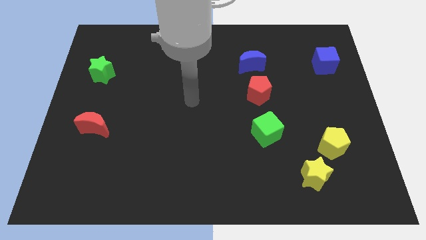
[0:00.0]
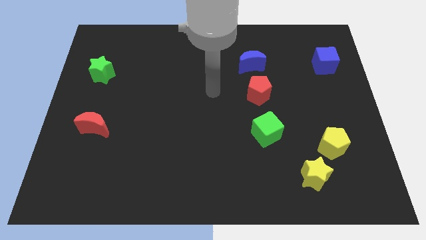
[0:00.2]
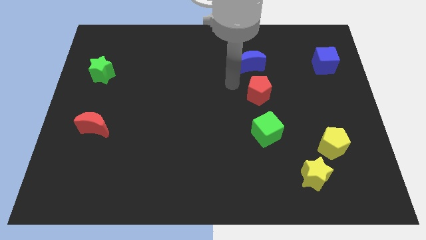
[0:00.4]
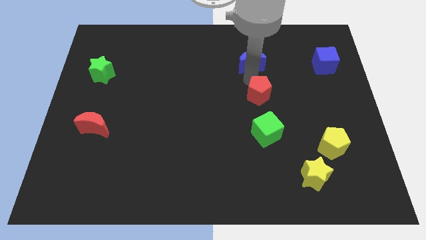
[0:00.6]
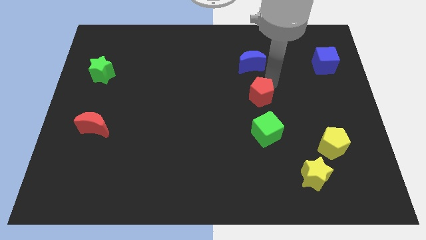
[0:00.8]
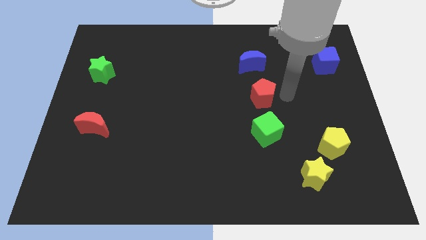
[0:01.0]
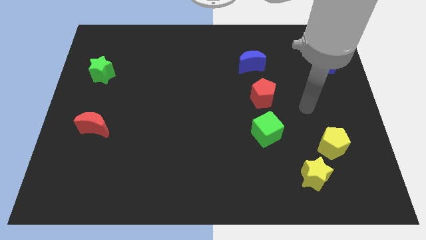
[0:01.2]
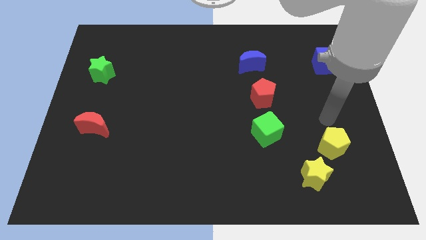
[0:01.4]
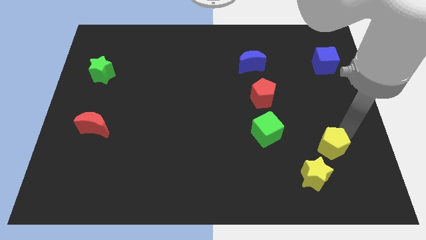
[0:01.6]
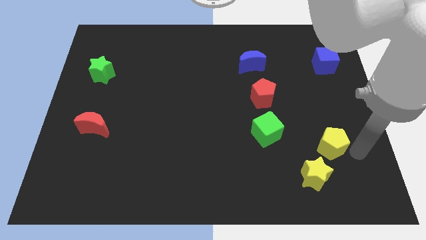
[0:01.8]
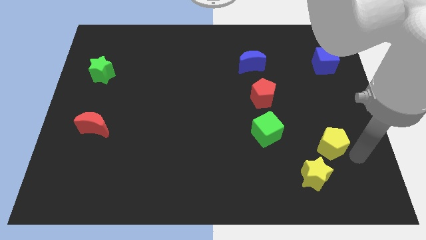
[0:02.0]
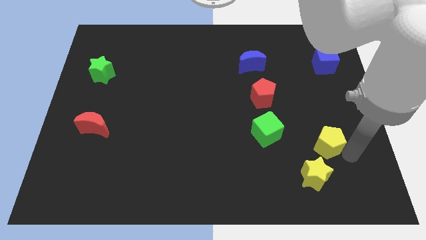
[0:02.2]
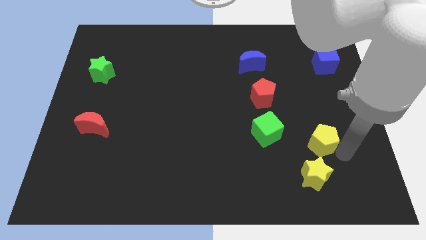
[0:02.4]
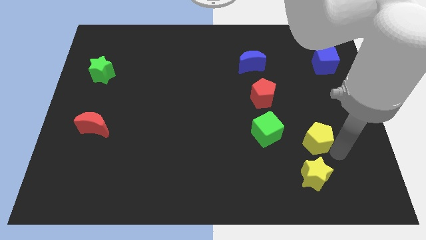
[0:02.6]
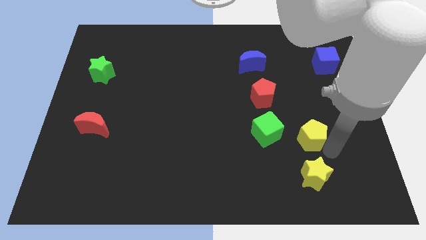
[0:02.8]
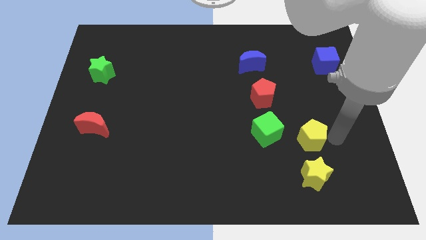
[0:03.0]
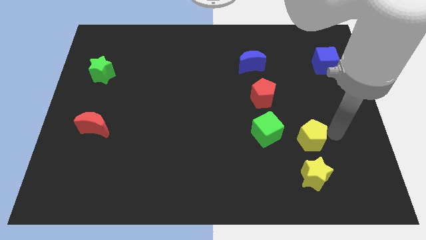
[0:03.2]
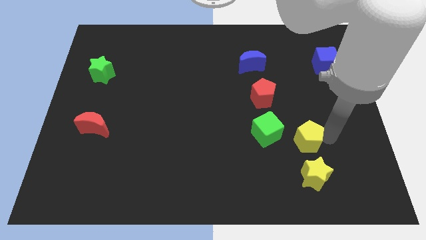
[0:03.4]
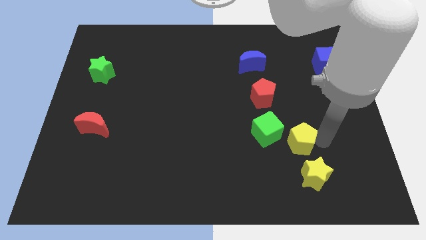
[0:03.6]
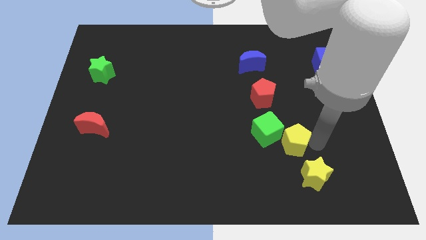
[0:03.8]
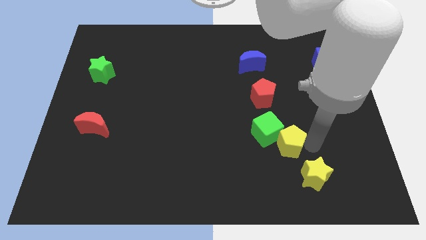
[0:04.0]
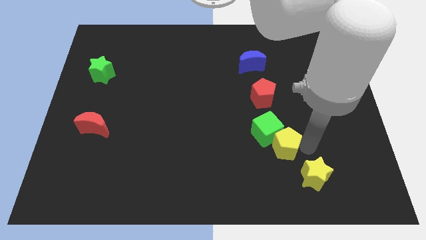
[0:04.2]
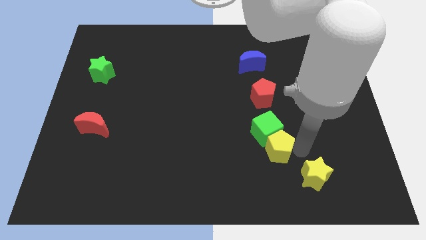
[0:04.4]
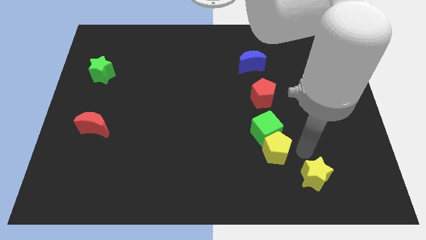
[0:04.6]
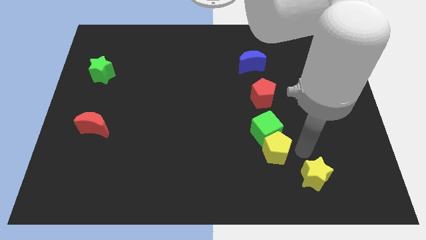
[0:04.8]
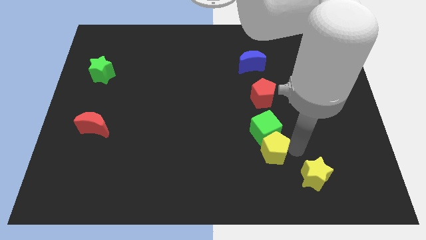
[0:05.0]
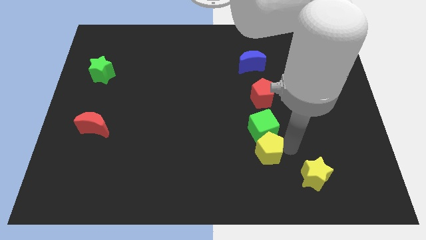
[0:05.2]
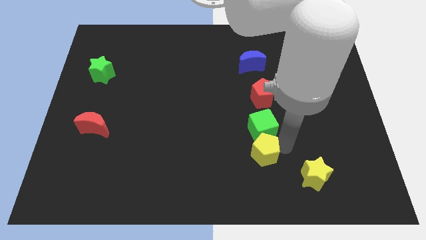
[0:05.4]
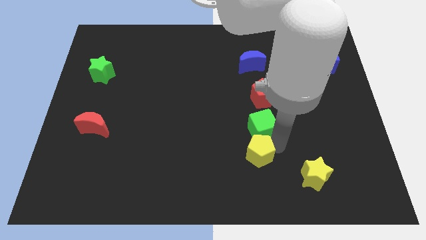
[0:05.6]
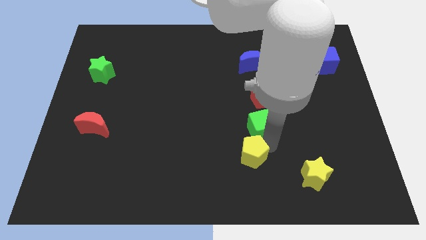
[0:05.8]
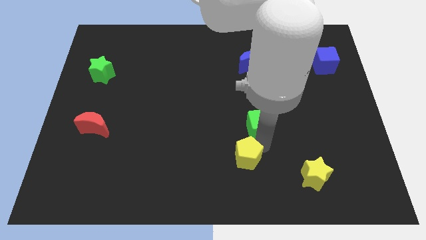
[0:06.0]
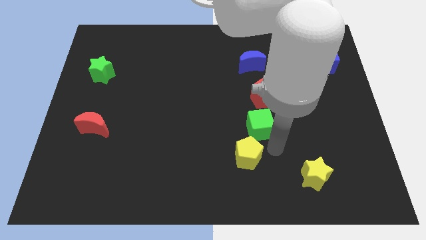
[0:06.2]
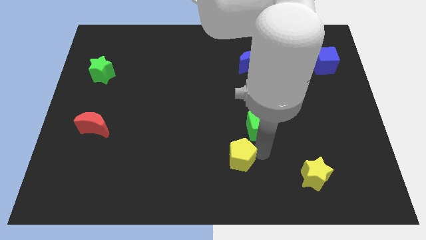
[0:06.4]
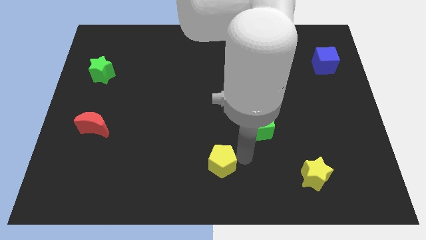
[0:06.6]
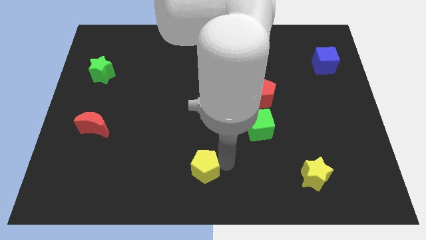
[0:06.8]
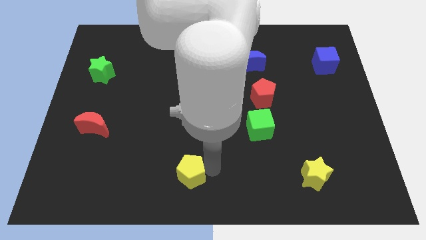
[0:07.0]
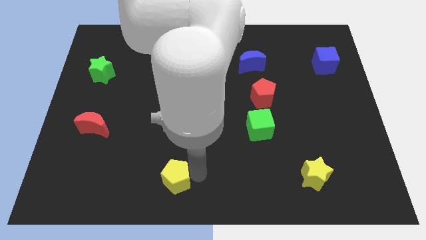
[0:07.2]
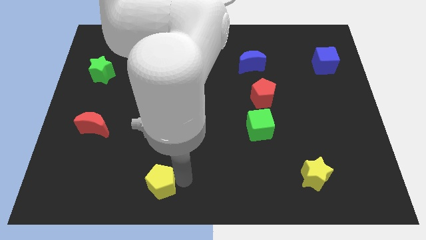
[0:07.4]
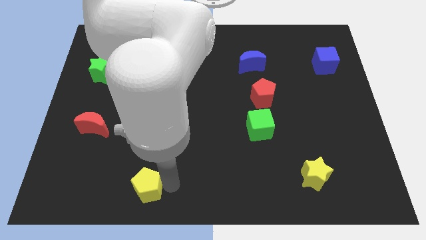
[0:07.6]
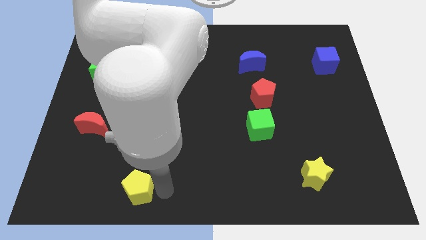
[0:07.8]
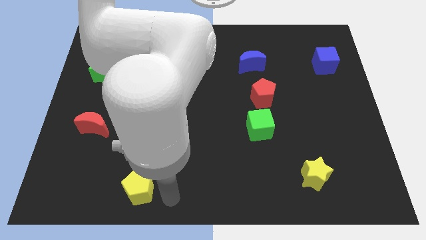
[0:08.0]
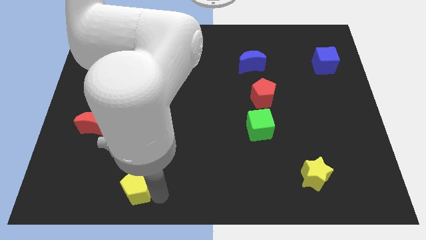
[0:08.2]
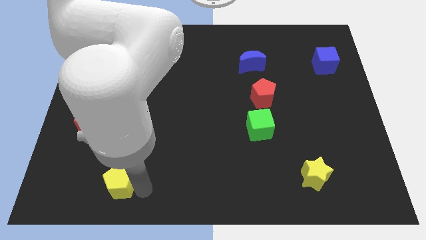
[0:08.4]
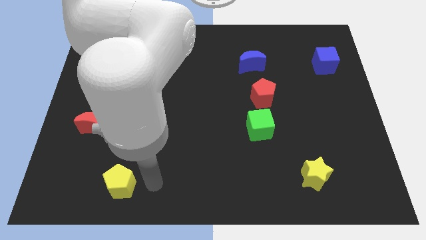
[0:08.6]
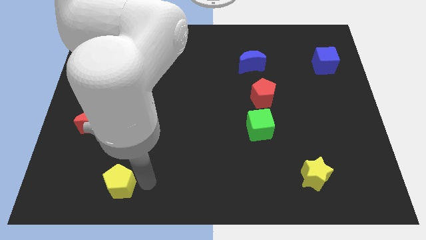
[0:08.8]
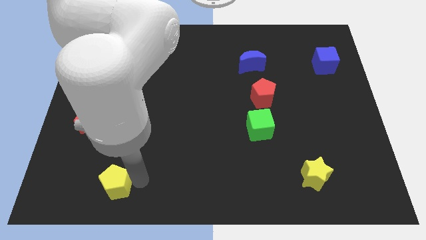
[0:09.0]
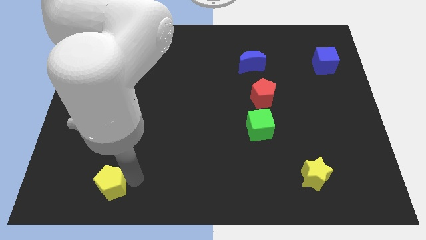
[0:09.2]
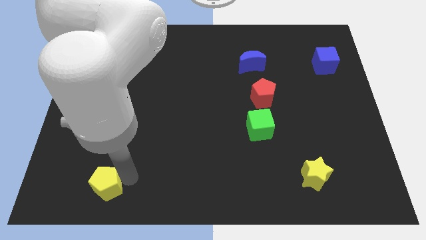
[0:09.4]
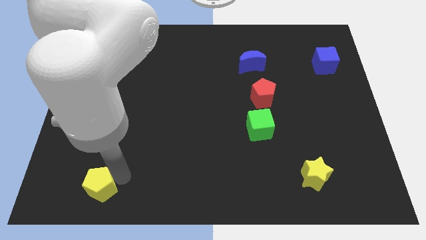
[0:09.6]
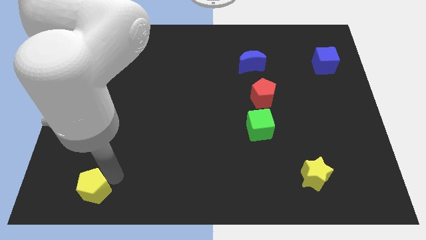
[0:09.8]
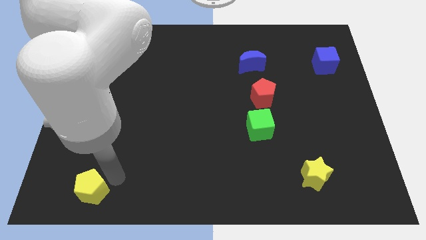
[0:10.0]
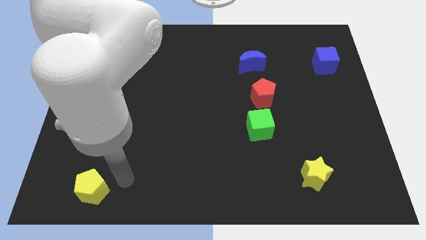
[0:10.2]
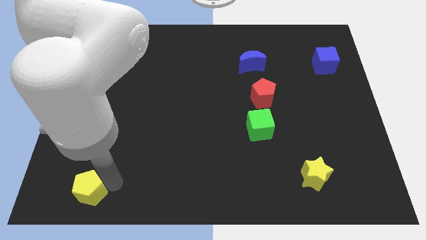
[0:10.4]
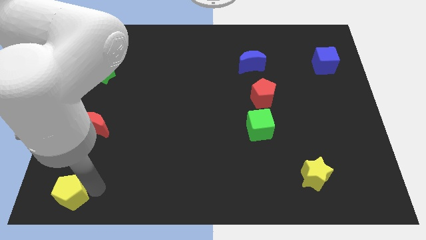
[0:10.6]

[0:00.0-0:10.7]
slide the yellow pentagon to the bottom left corner

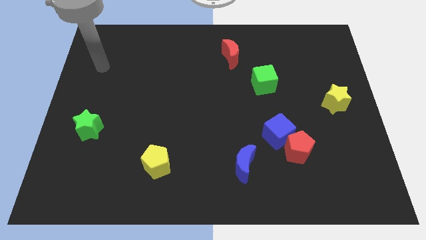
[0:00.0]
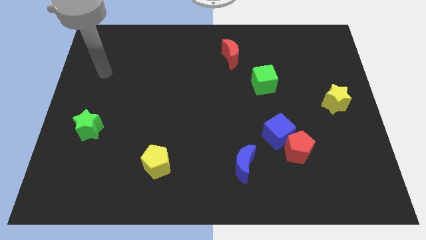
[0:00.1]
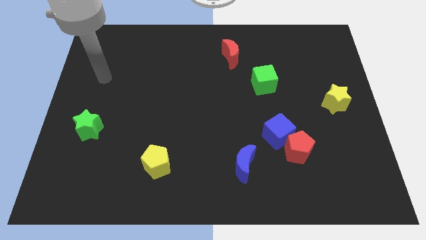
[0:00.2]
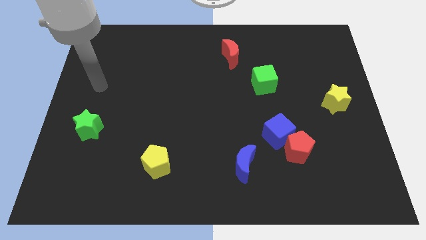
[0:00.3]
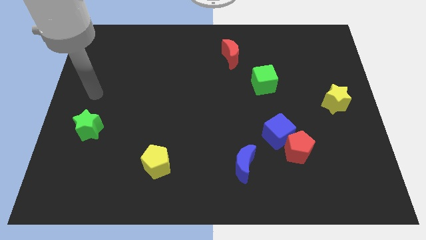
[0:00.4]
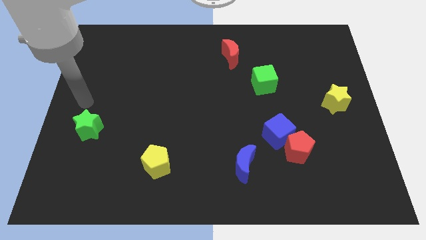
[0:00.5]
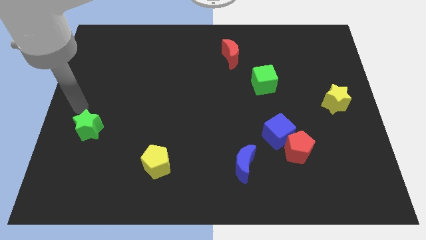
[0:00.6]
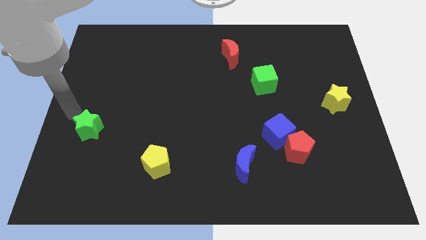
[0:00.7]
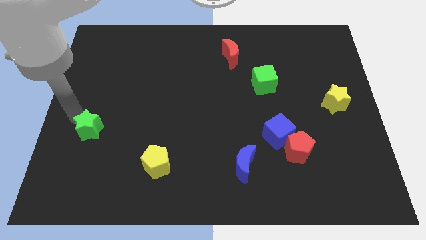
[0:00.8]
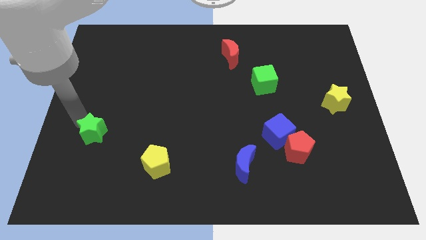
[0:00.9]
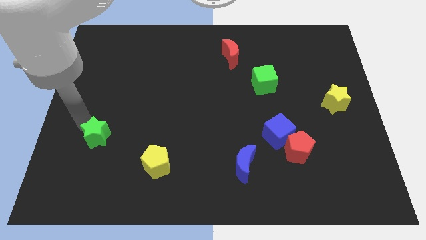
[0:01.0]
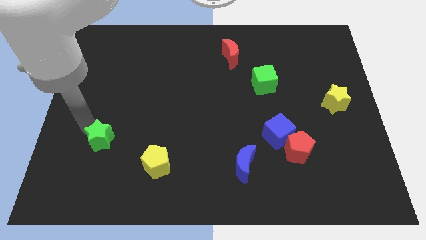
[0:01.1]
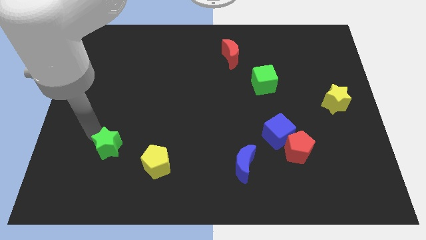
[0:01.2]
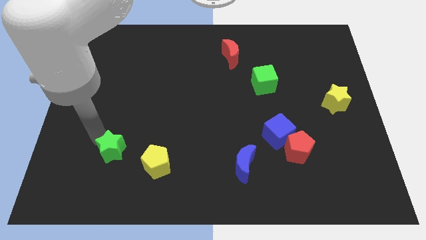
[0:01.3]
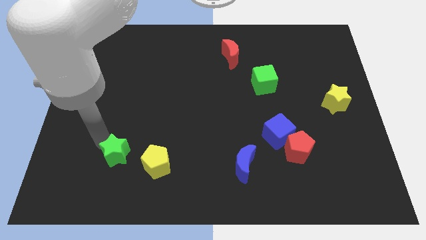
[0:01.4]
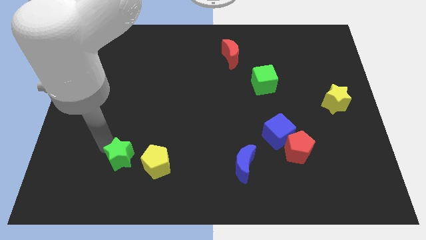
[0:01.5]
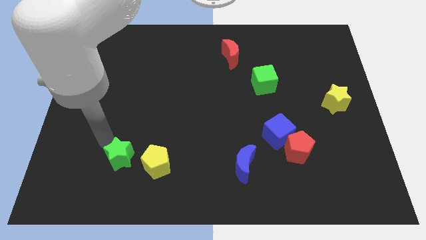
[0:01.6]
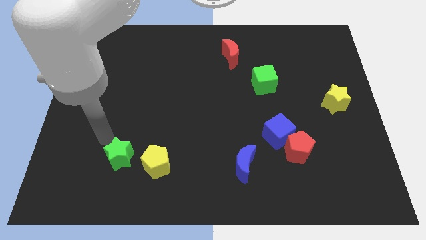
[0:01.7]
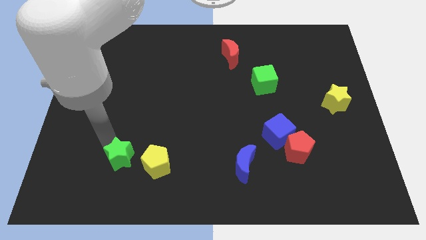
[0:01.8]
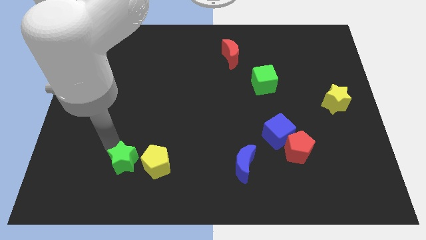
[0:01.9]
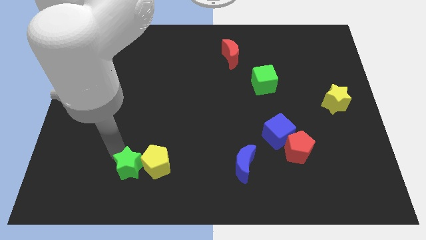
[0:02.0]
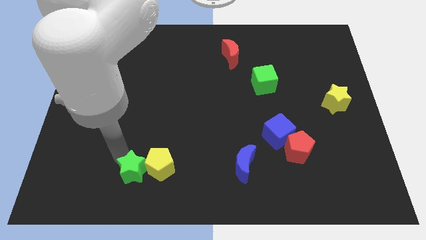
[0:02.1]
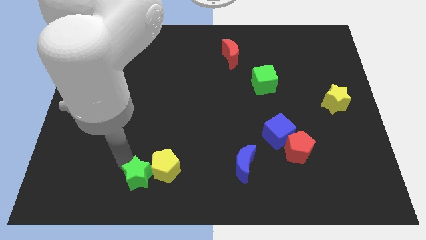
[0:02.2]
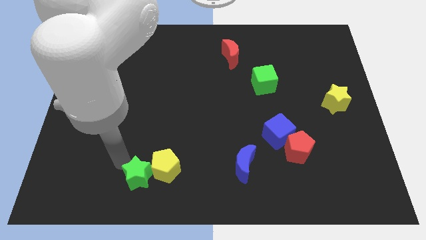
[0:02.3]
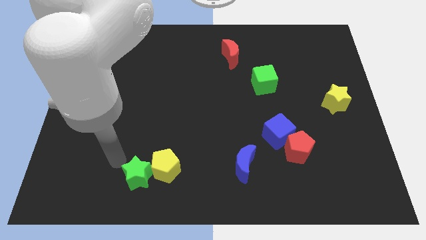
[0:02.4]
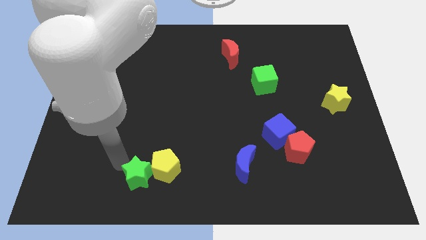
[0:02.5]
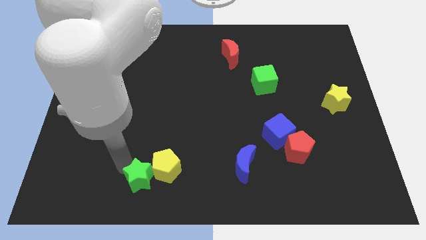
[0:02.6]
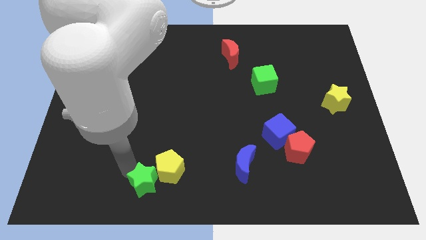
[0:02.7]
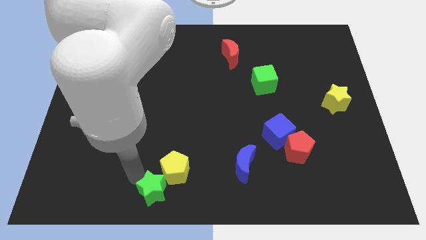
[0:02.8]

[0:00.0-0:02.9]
move the green star to the bottom
